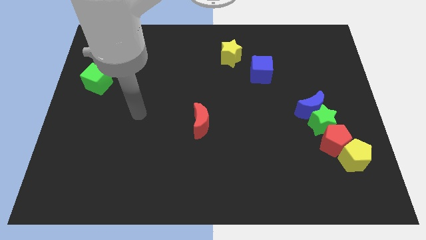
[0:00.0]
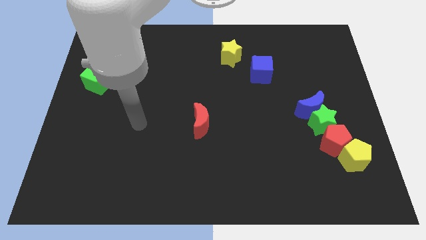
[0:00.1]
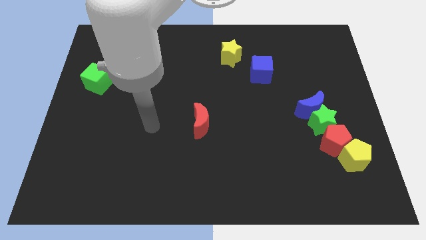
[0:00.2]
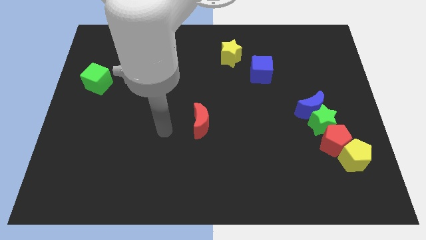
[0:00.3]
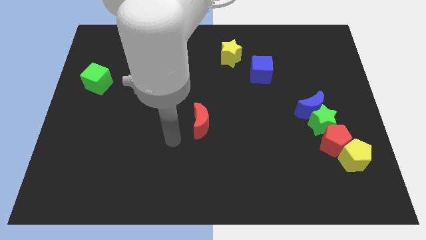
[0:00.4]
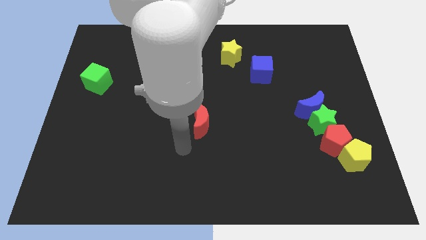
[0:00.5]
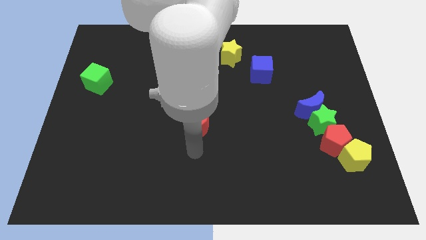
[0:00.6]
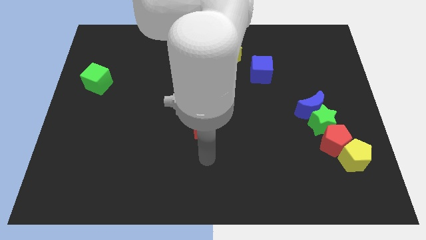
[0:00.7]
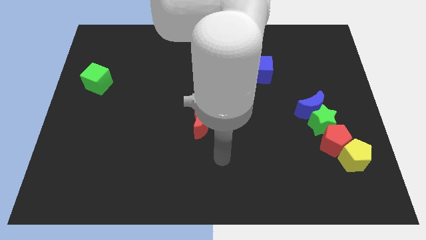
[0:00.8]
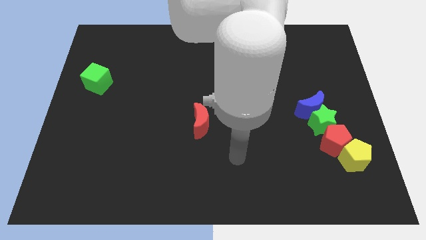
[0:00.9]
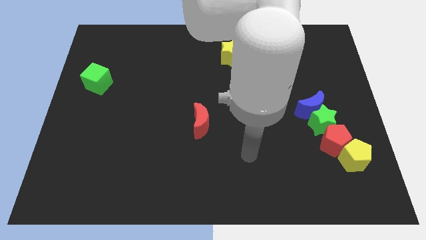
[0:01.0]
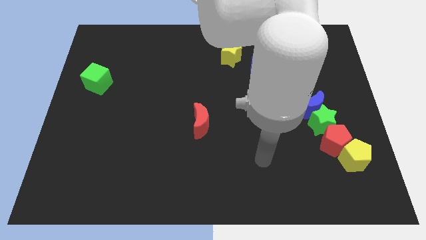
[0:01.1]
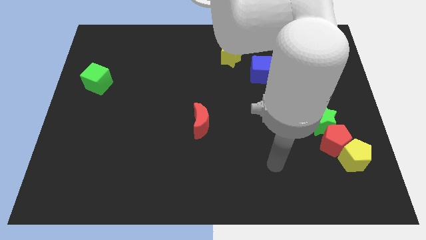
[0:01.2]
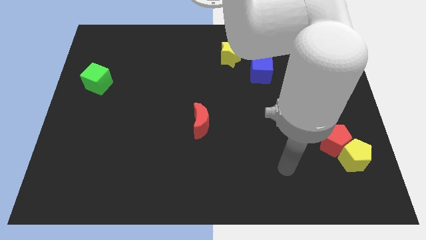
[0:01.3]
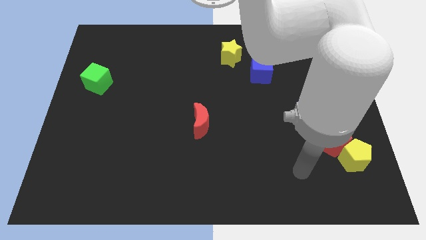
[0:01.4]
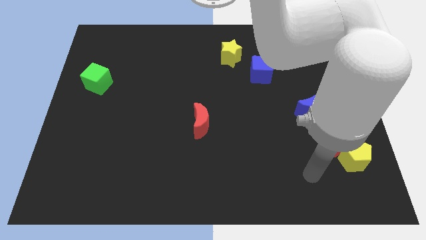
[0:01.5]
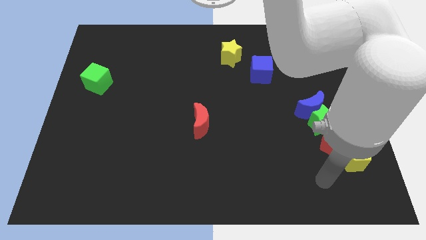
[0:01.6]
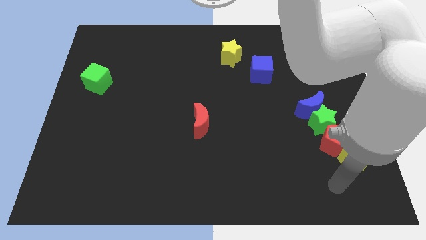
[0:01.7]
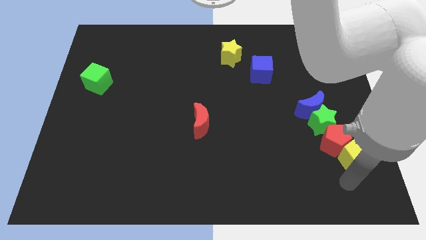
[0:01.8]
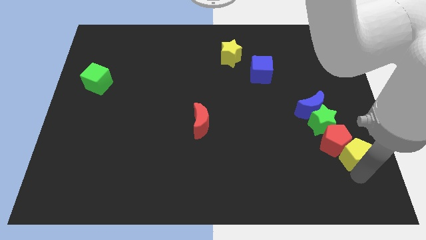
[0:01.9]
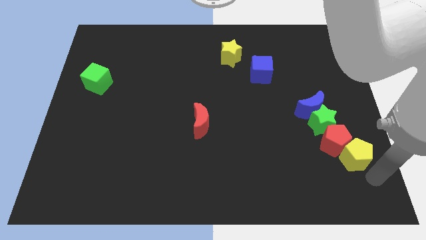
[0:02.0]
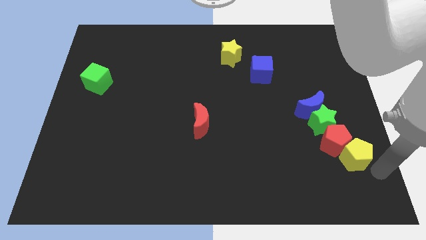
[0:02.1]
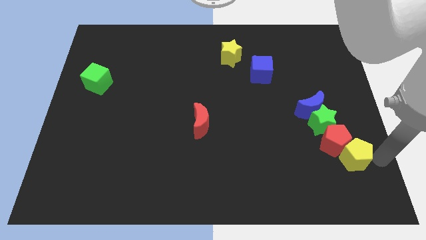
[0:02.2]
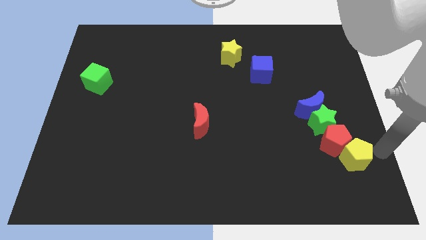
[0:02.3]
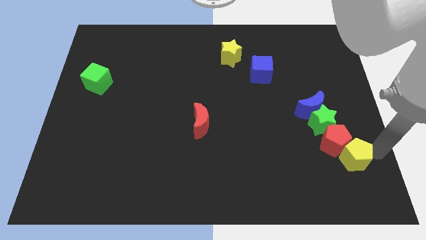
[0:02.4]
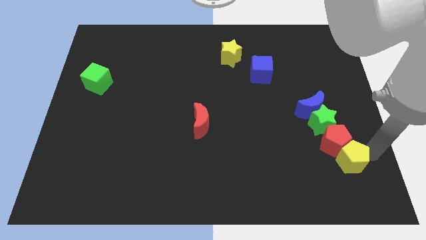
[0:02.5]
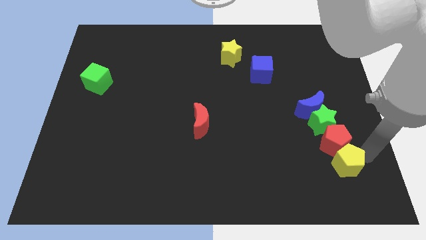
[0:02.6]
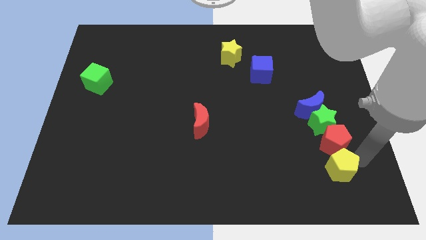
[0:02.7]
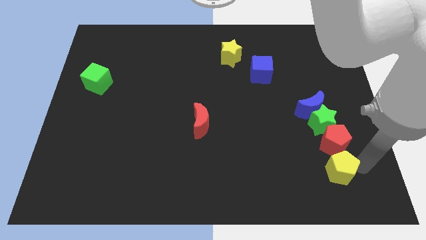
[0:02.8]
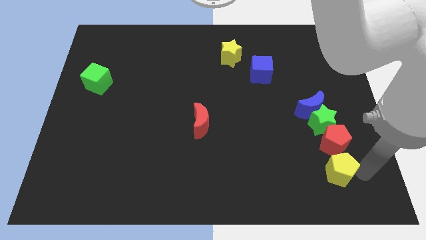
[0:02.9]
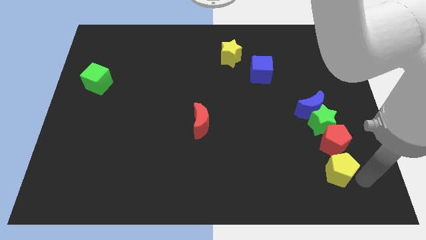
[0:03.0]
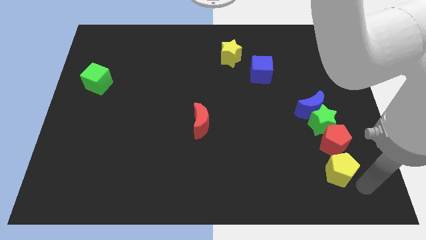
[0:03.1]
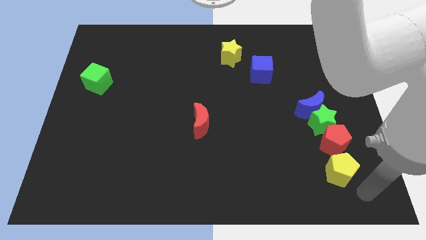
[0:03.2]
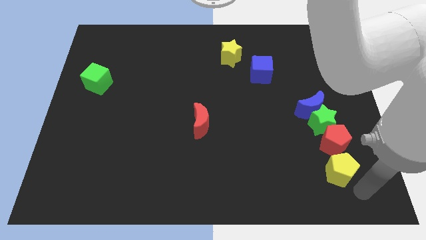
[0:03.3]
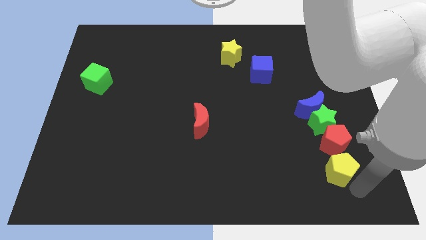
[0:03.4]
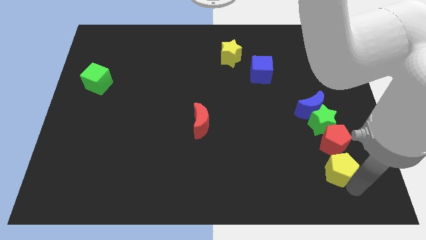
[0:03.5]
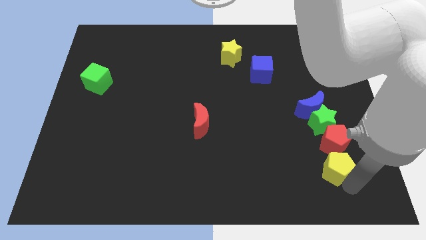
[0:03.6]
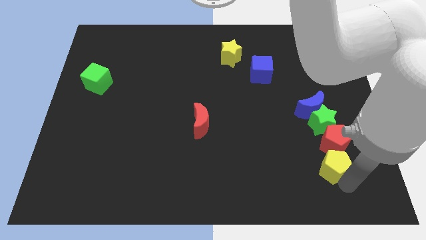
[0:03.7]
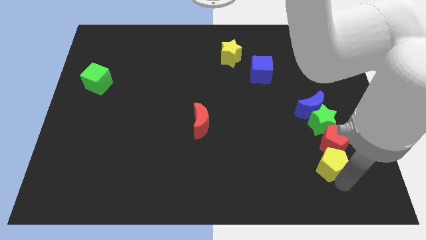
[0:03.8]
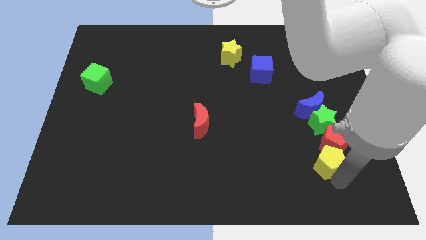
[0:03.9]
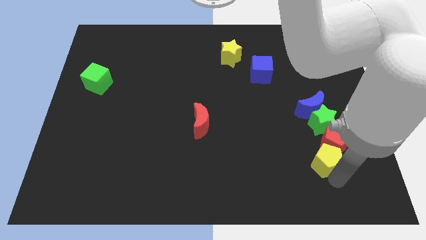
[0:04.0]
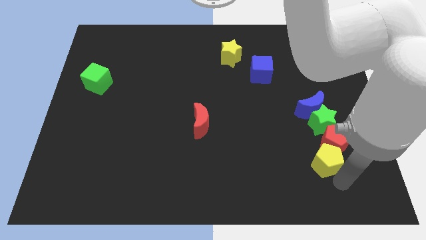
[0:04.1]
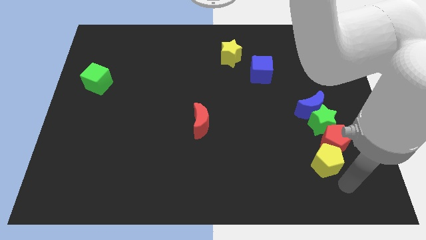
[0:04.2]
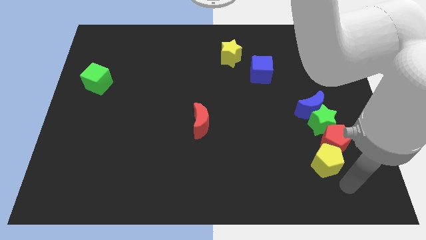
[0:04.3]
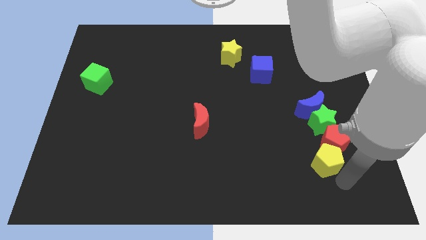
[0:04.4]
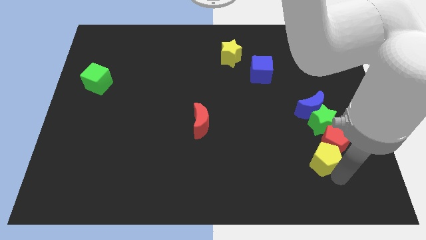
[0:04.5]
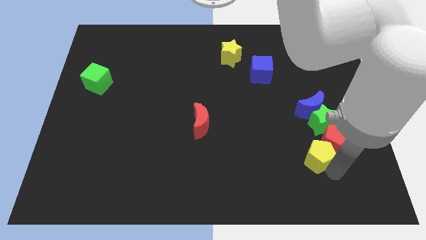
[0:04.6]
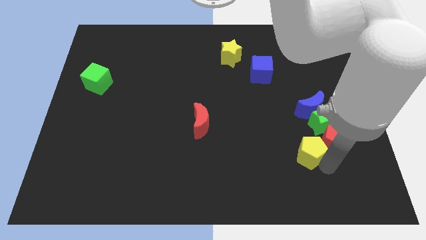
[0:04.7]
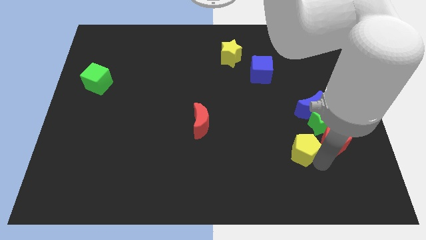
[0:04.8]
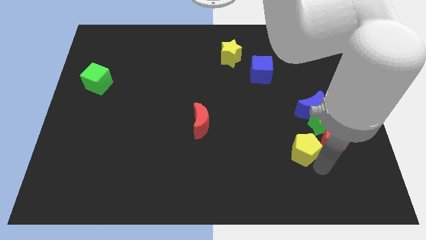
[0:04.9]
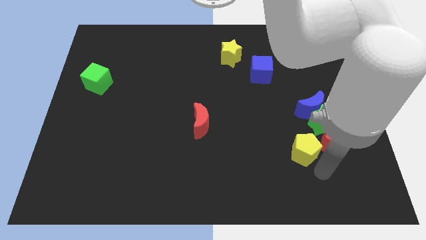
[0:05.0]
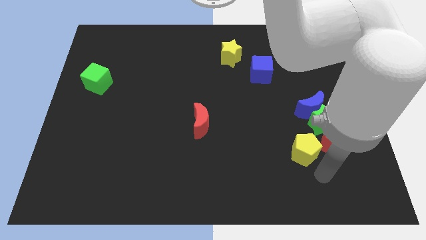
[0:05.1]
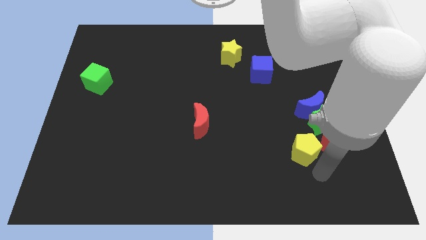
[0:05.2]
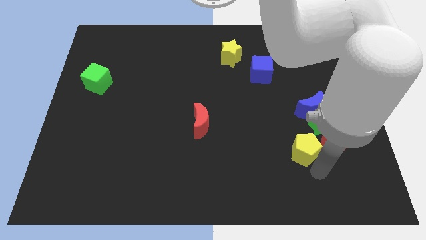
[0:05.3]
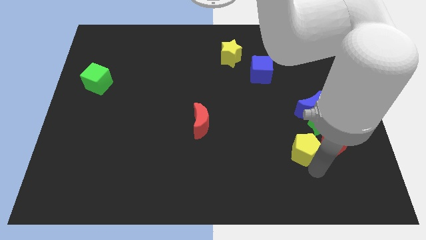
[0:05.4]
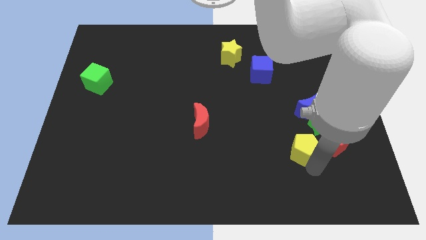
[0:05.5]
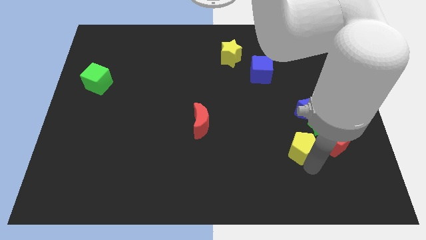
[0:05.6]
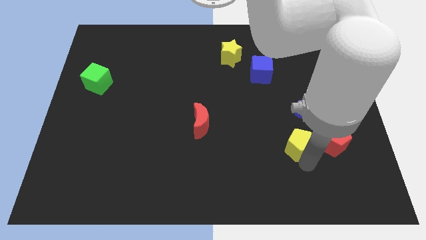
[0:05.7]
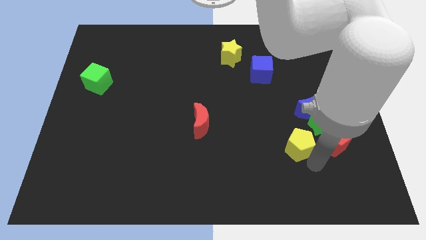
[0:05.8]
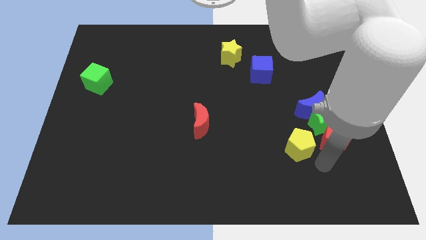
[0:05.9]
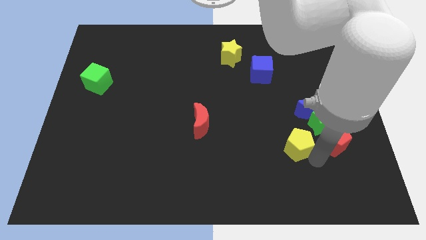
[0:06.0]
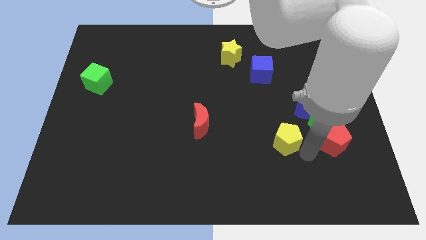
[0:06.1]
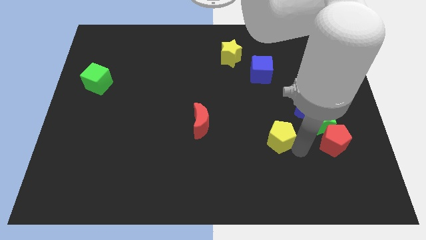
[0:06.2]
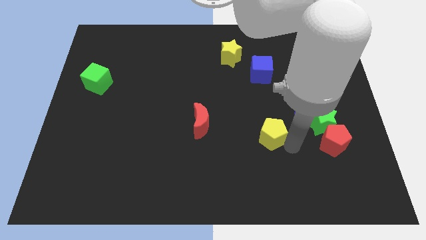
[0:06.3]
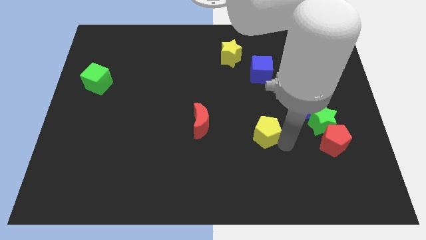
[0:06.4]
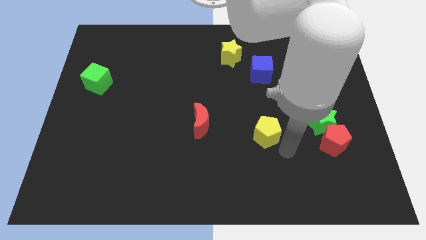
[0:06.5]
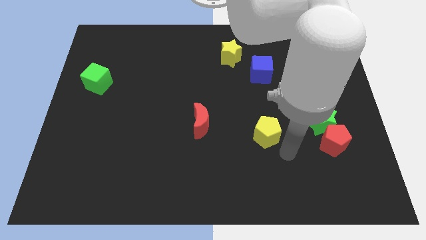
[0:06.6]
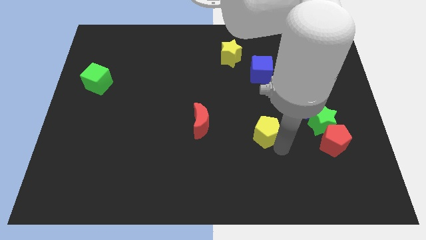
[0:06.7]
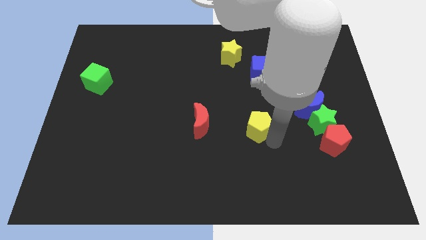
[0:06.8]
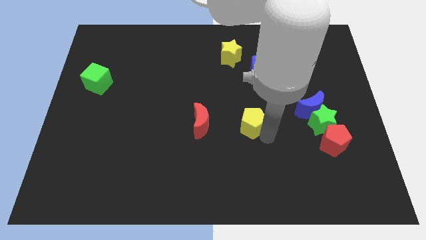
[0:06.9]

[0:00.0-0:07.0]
put the yellow pentagon to the center

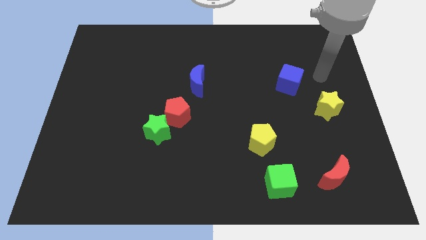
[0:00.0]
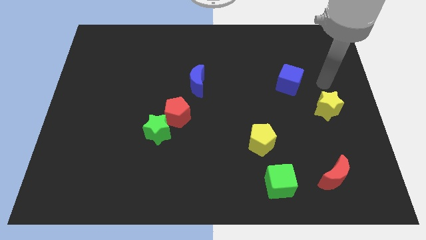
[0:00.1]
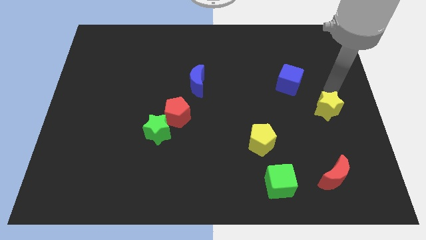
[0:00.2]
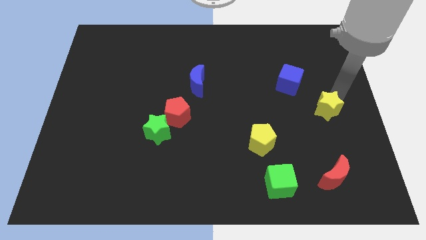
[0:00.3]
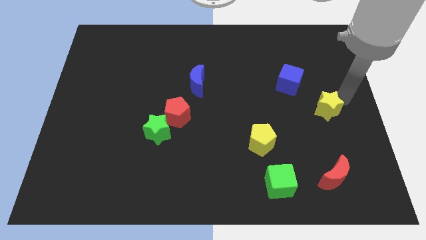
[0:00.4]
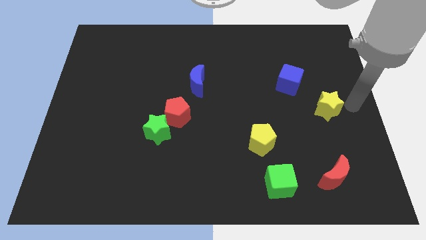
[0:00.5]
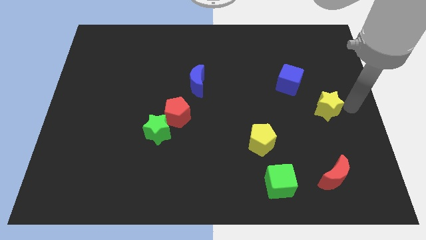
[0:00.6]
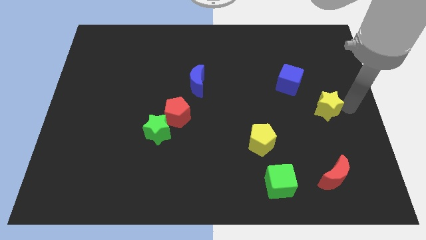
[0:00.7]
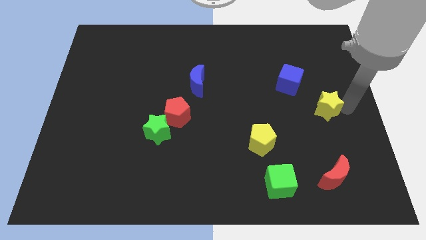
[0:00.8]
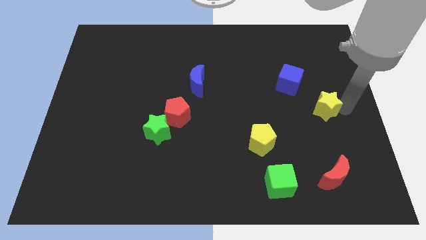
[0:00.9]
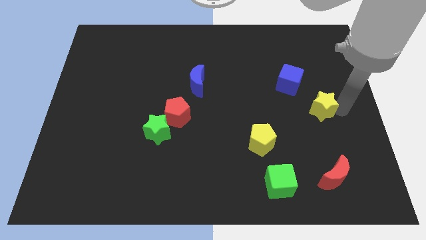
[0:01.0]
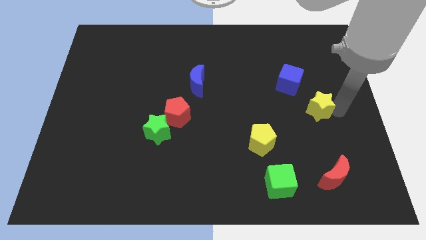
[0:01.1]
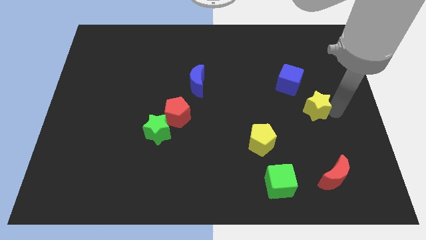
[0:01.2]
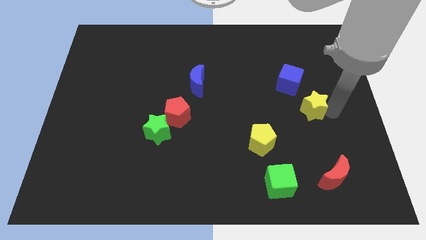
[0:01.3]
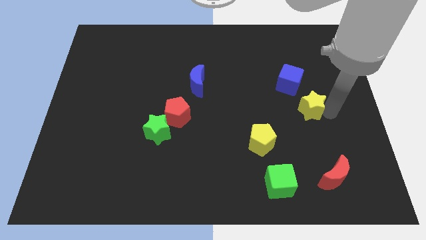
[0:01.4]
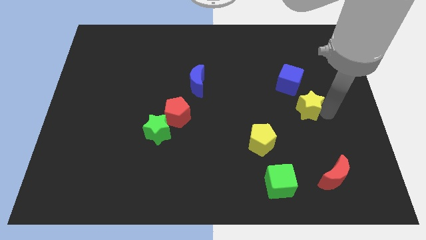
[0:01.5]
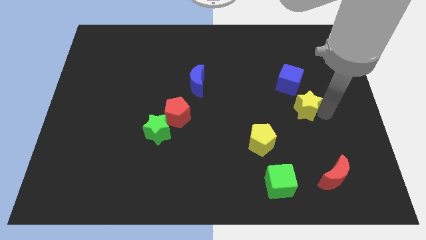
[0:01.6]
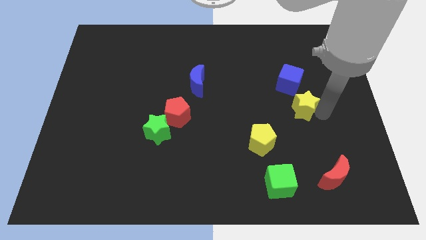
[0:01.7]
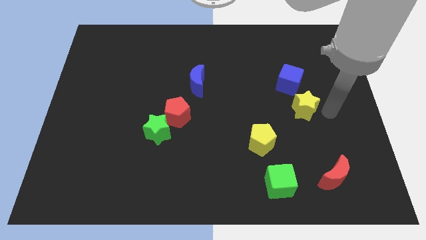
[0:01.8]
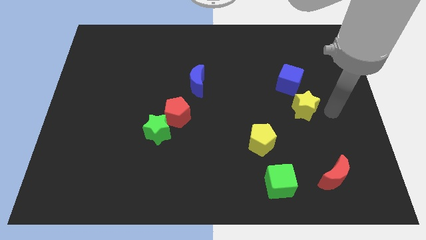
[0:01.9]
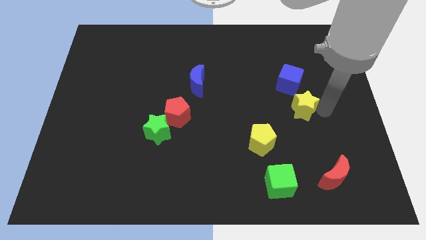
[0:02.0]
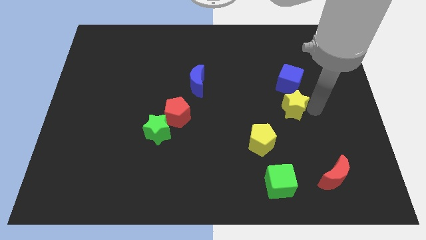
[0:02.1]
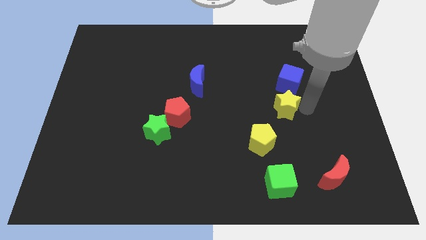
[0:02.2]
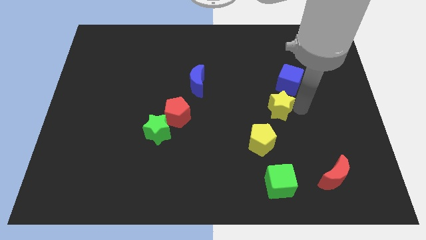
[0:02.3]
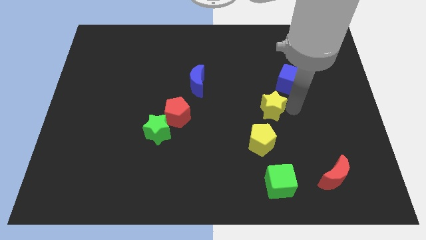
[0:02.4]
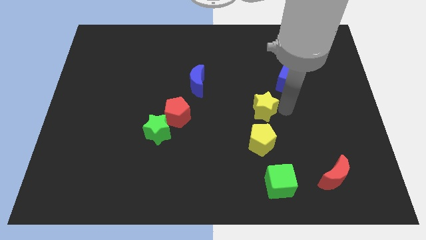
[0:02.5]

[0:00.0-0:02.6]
slide the yellow star to the center of the board
